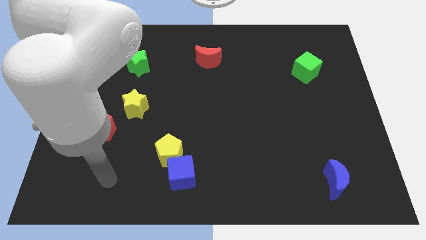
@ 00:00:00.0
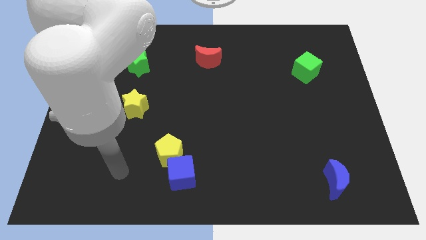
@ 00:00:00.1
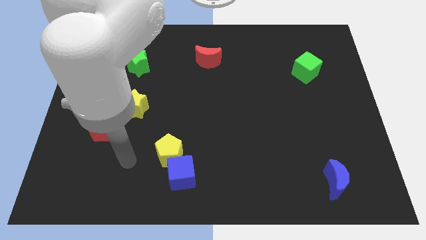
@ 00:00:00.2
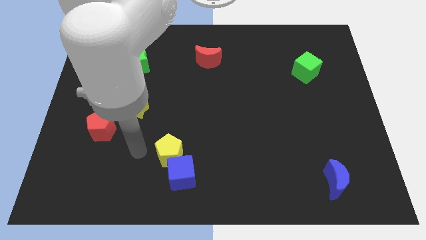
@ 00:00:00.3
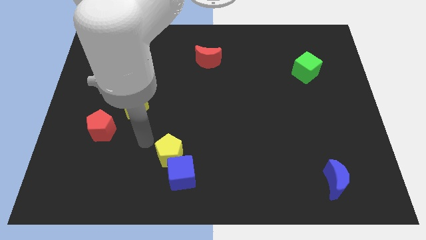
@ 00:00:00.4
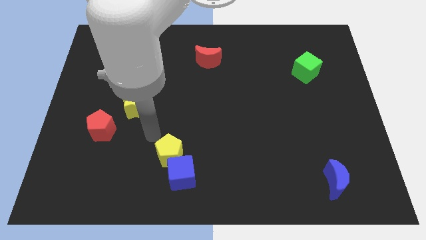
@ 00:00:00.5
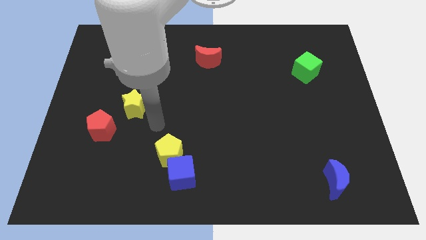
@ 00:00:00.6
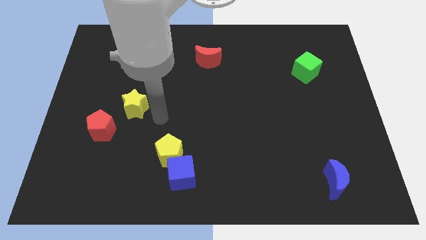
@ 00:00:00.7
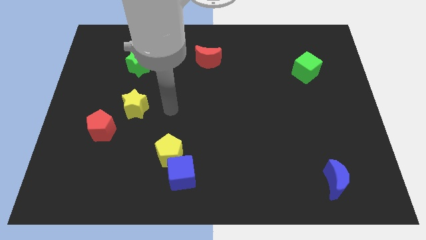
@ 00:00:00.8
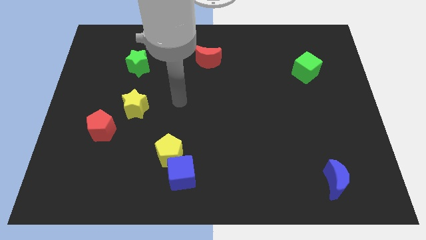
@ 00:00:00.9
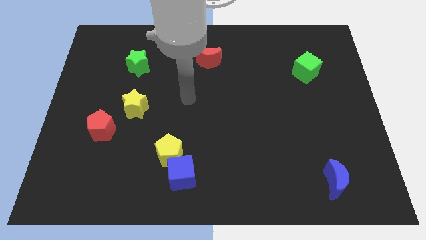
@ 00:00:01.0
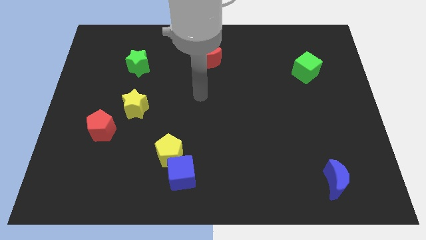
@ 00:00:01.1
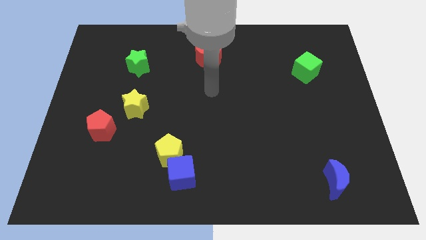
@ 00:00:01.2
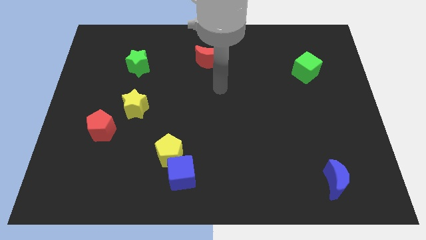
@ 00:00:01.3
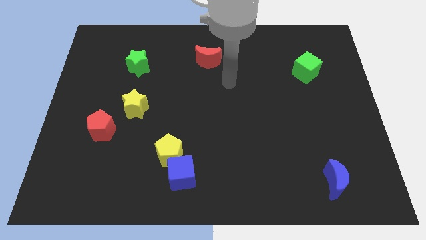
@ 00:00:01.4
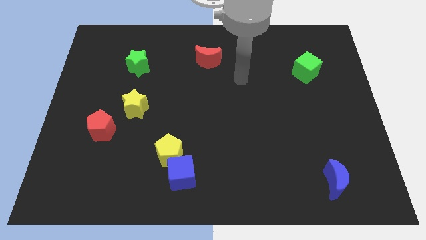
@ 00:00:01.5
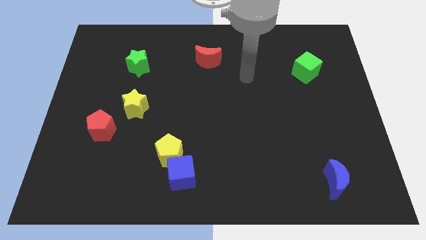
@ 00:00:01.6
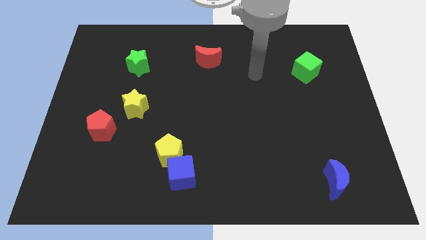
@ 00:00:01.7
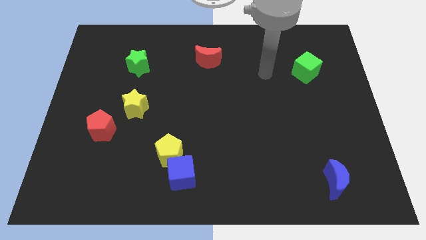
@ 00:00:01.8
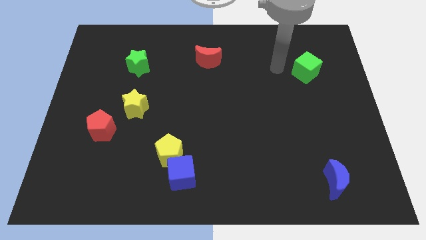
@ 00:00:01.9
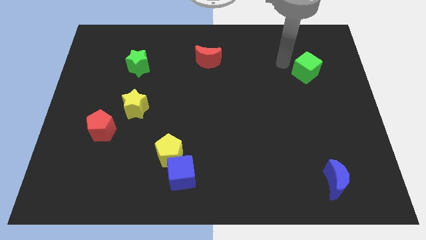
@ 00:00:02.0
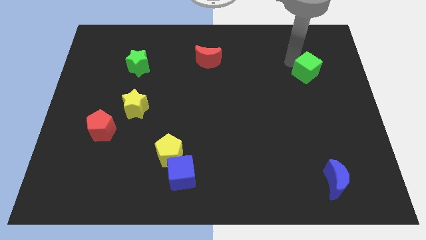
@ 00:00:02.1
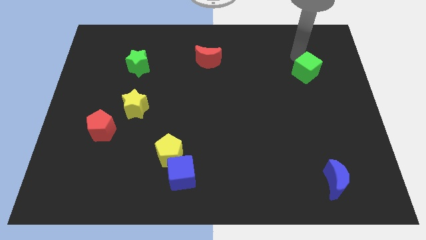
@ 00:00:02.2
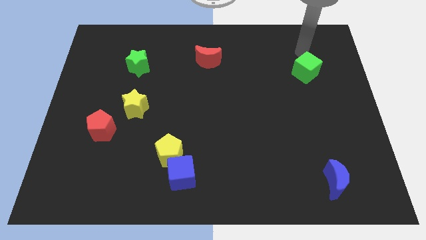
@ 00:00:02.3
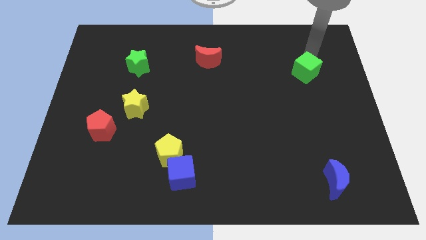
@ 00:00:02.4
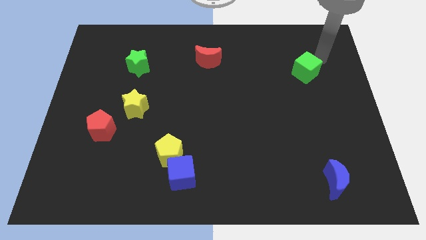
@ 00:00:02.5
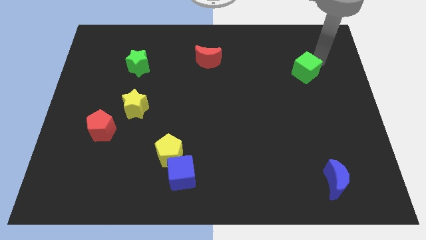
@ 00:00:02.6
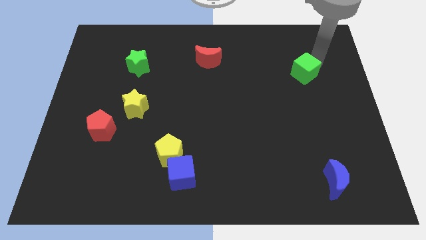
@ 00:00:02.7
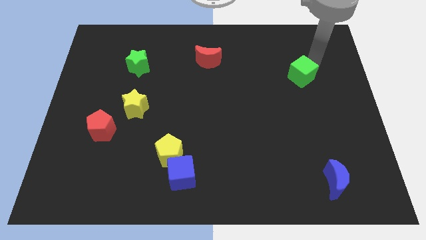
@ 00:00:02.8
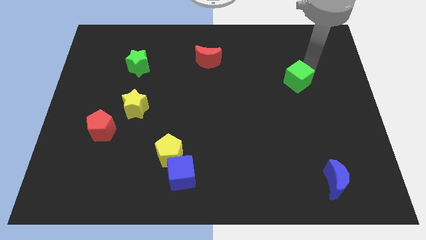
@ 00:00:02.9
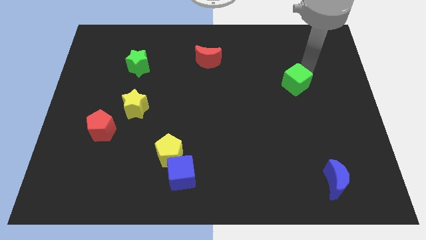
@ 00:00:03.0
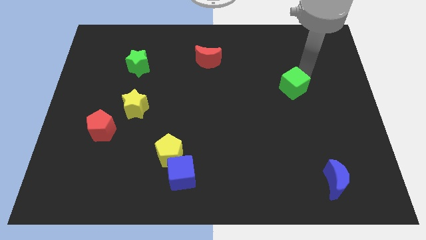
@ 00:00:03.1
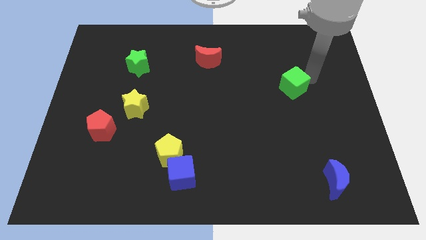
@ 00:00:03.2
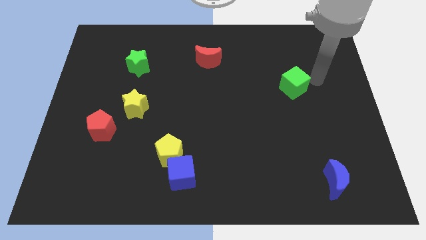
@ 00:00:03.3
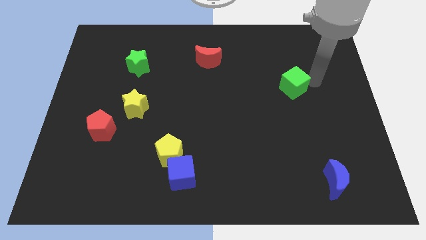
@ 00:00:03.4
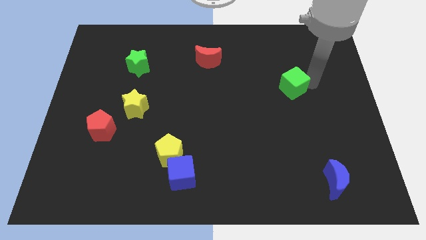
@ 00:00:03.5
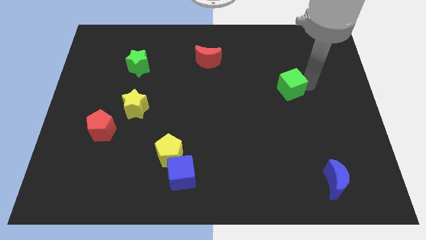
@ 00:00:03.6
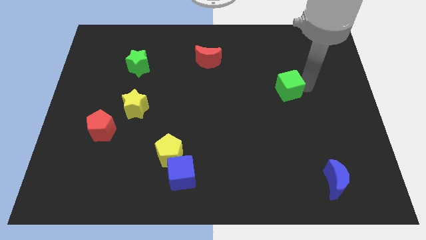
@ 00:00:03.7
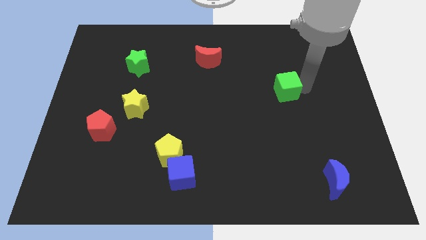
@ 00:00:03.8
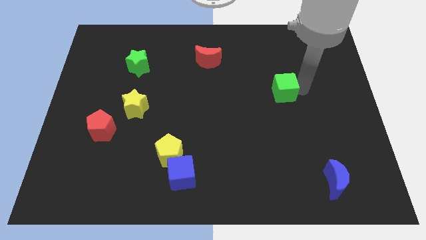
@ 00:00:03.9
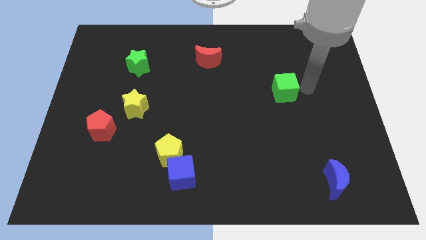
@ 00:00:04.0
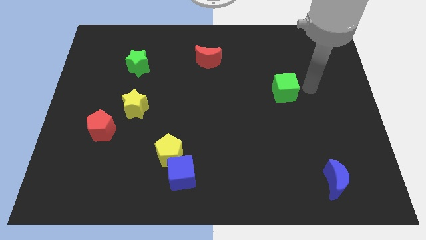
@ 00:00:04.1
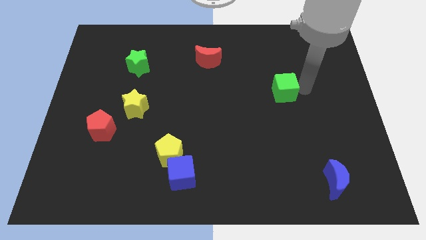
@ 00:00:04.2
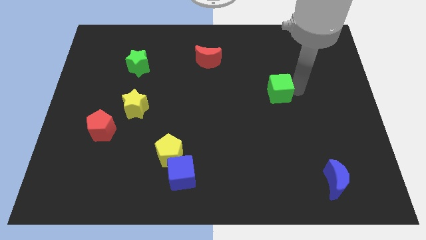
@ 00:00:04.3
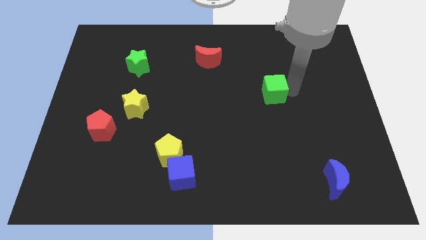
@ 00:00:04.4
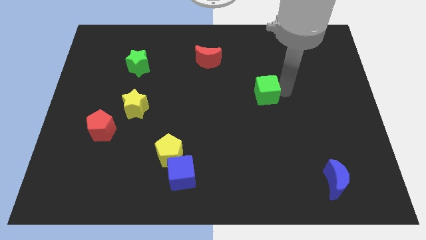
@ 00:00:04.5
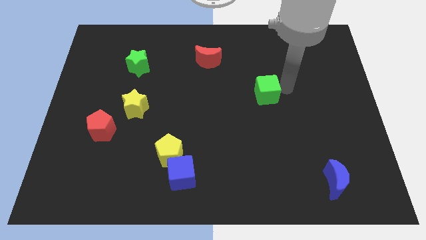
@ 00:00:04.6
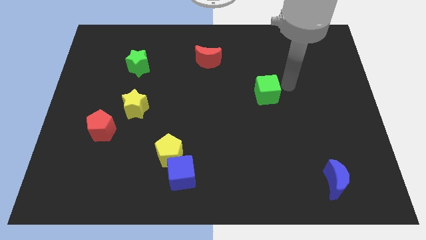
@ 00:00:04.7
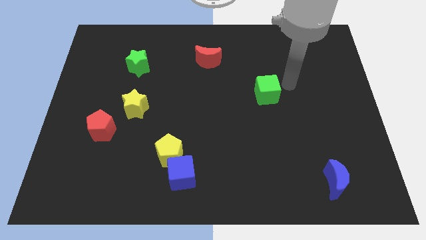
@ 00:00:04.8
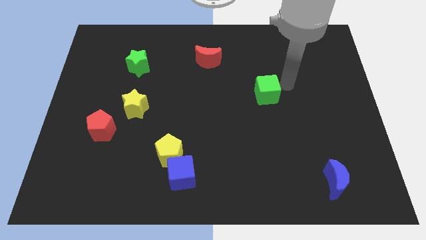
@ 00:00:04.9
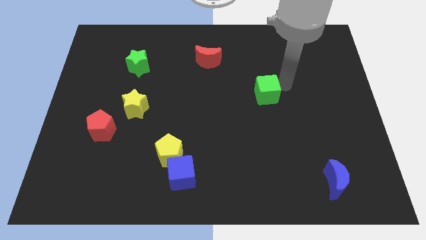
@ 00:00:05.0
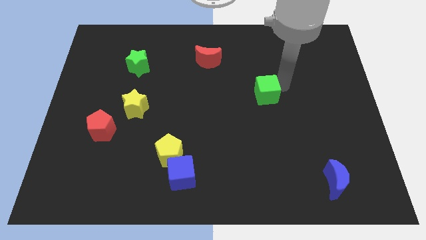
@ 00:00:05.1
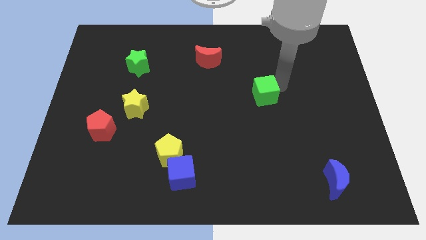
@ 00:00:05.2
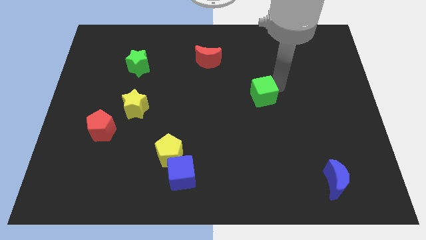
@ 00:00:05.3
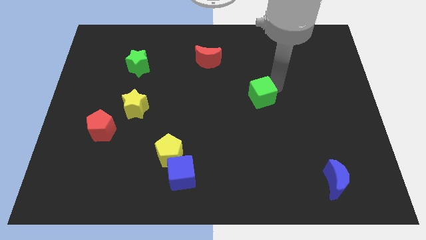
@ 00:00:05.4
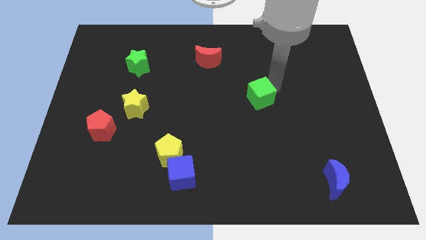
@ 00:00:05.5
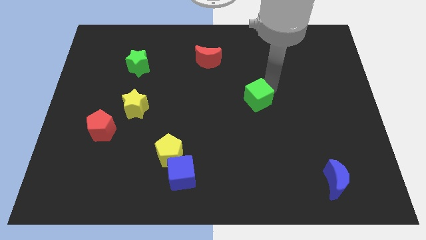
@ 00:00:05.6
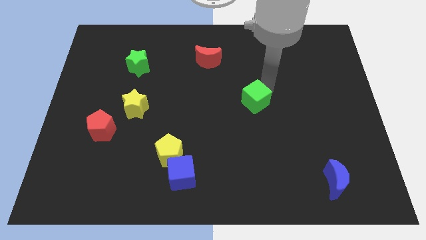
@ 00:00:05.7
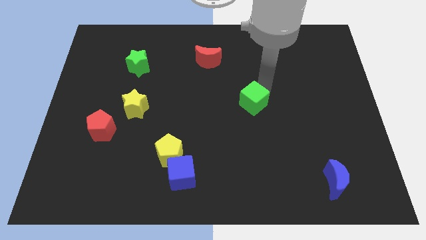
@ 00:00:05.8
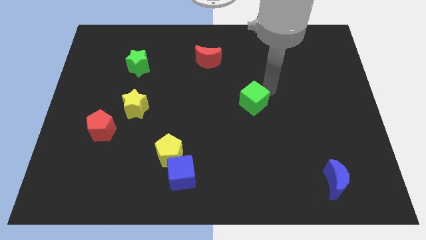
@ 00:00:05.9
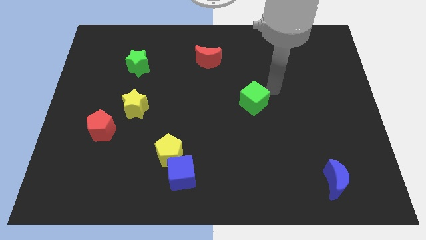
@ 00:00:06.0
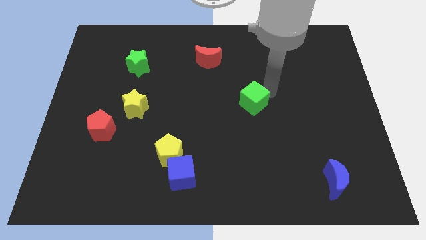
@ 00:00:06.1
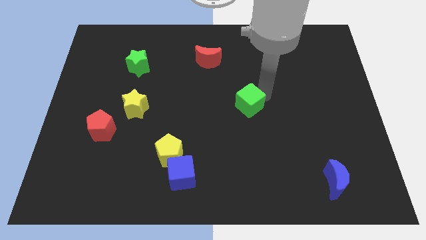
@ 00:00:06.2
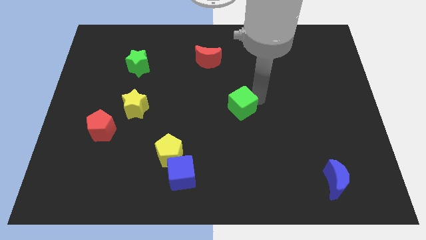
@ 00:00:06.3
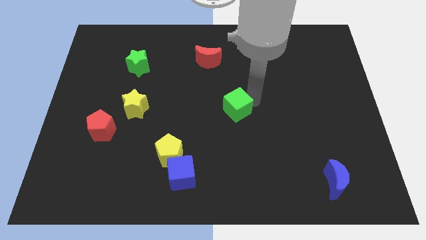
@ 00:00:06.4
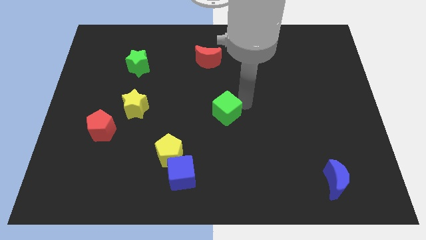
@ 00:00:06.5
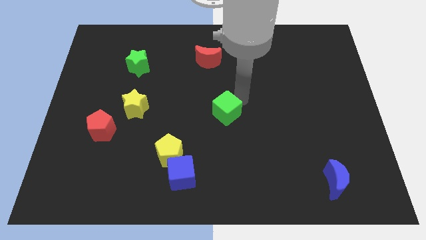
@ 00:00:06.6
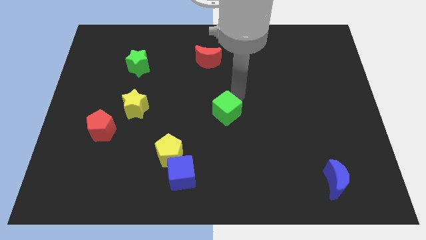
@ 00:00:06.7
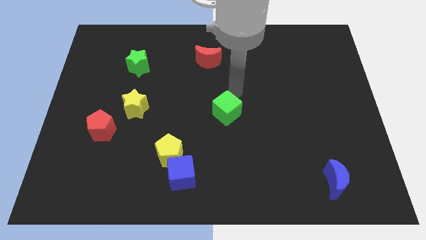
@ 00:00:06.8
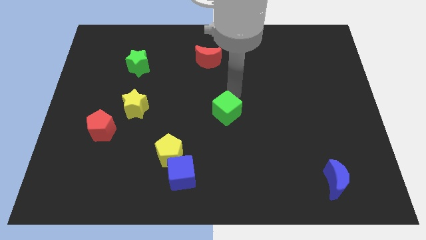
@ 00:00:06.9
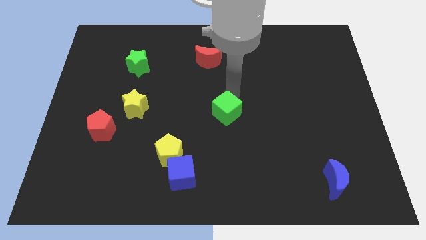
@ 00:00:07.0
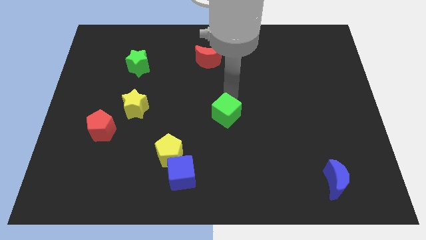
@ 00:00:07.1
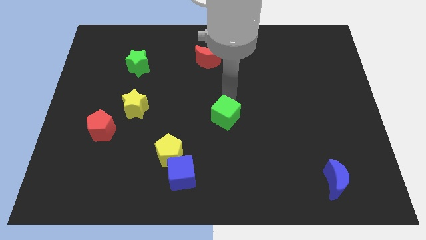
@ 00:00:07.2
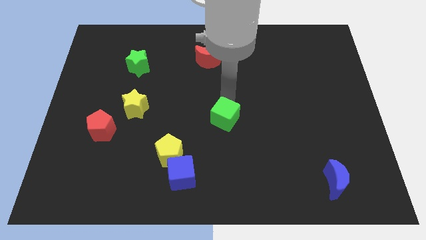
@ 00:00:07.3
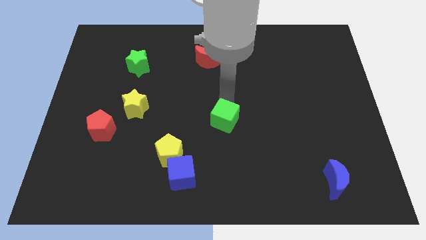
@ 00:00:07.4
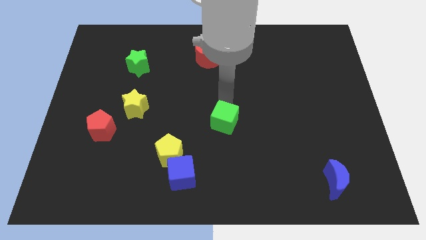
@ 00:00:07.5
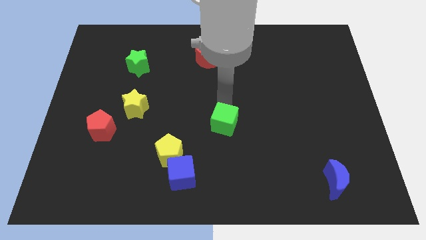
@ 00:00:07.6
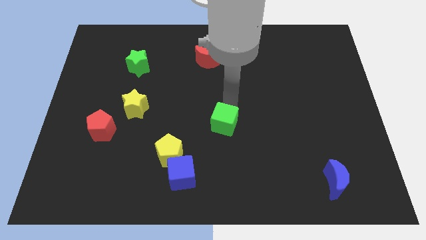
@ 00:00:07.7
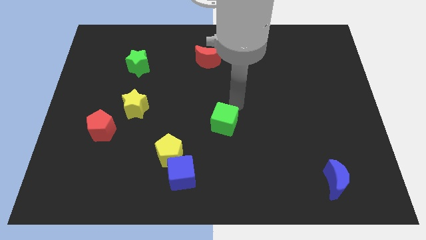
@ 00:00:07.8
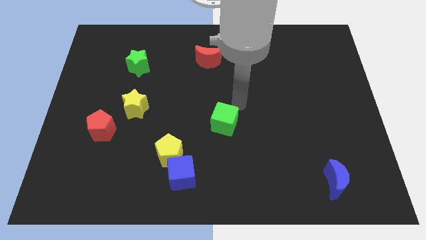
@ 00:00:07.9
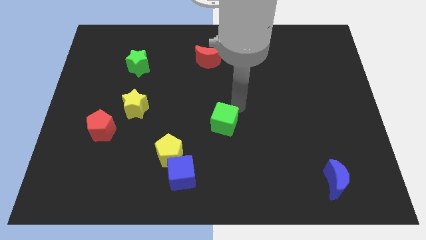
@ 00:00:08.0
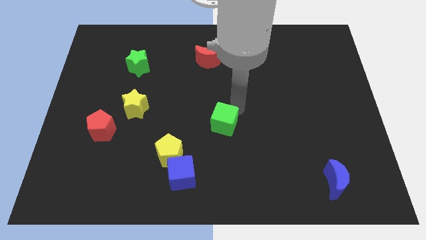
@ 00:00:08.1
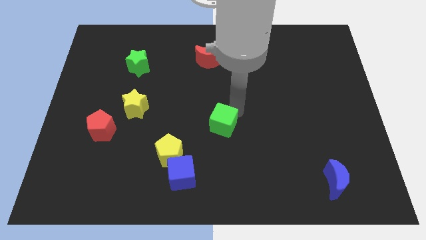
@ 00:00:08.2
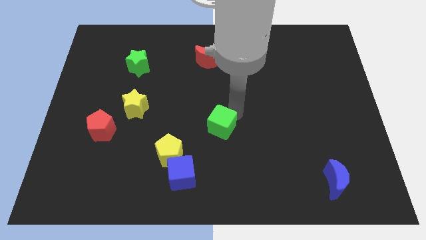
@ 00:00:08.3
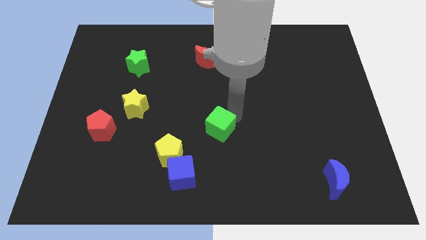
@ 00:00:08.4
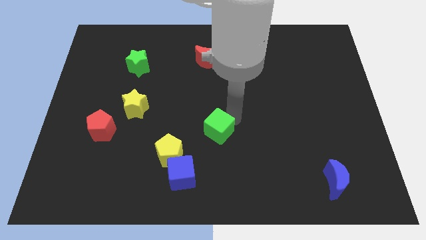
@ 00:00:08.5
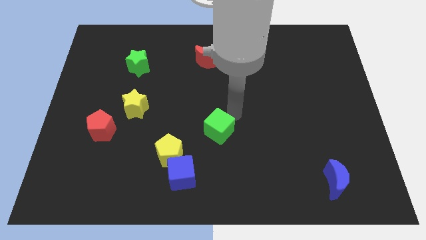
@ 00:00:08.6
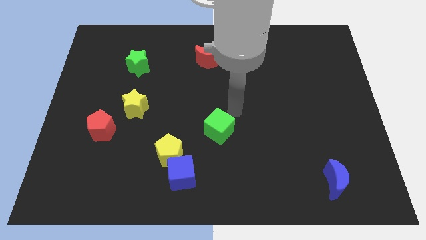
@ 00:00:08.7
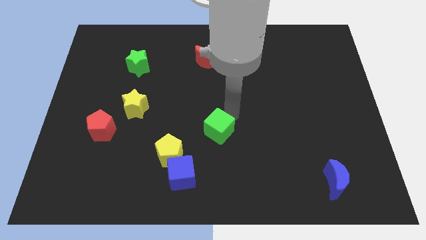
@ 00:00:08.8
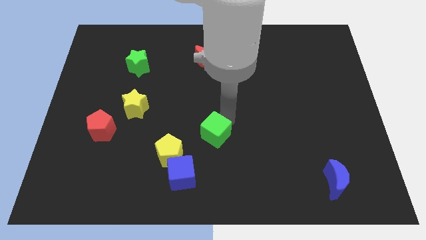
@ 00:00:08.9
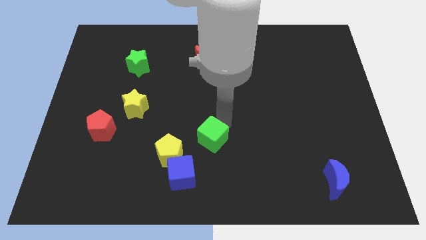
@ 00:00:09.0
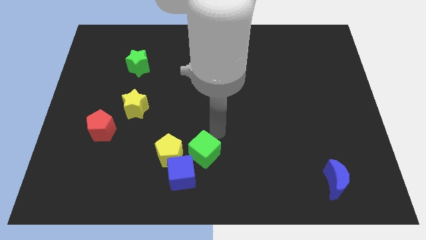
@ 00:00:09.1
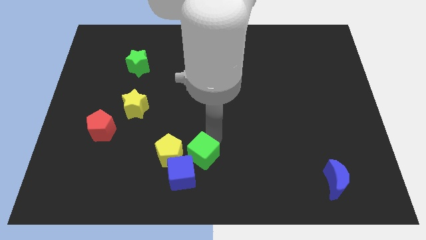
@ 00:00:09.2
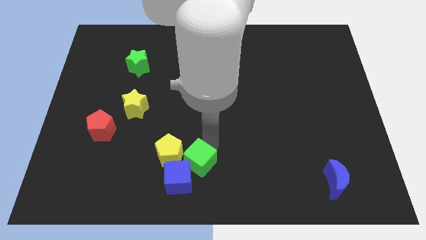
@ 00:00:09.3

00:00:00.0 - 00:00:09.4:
slide the green cube next to the blue cube
